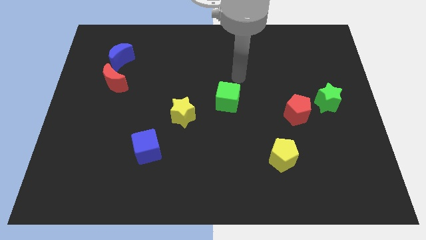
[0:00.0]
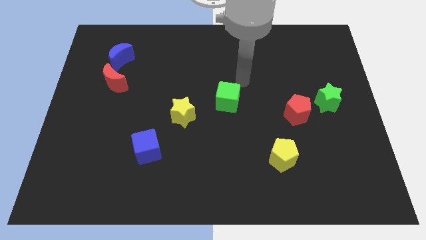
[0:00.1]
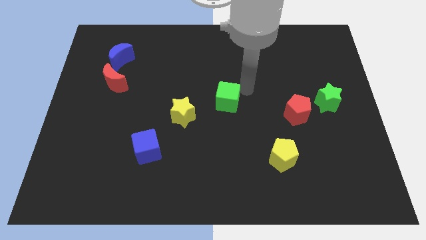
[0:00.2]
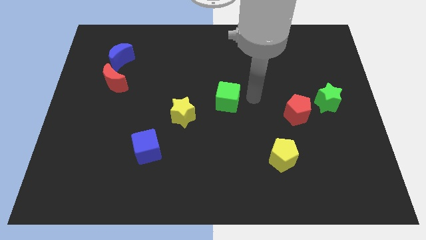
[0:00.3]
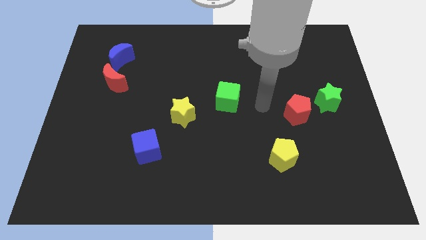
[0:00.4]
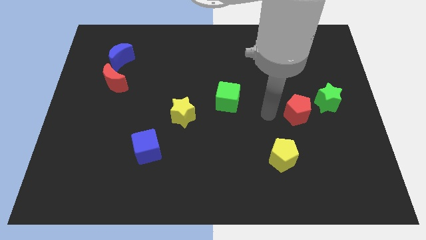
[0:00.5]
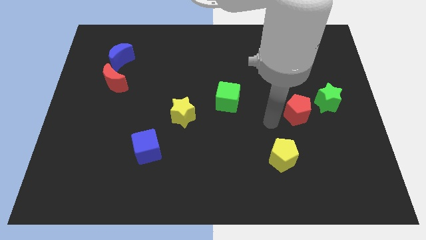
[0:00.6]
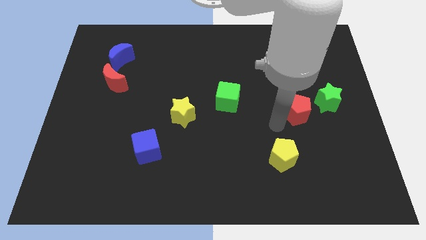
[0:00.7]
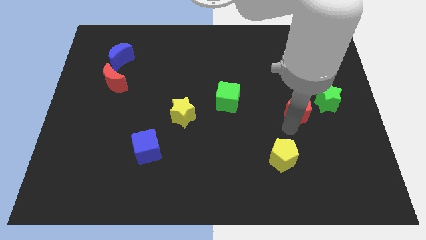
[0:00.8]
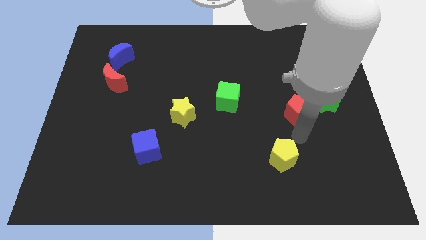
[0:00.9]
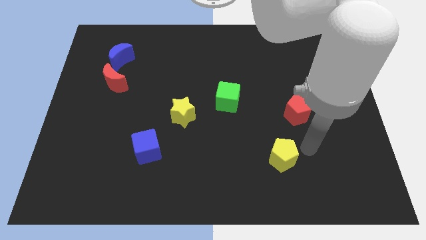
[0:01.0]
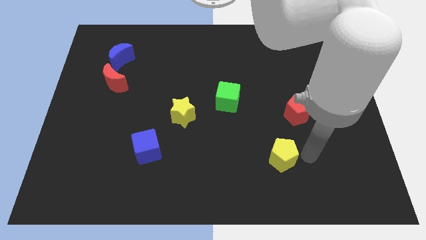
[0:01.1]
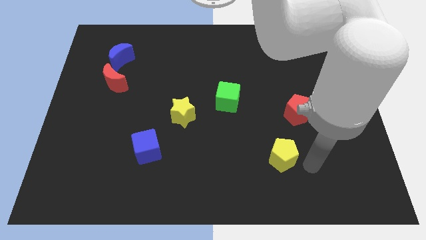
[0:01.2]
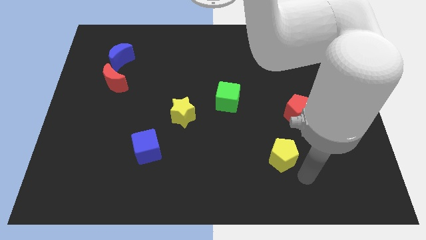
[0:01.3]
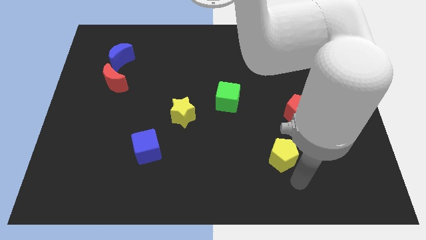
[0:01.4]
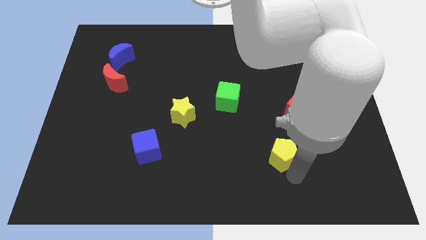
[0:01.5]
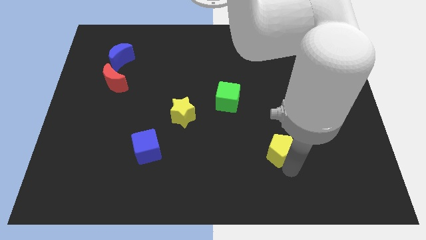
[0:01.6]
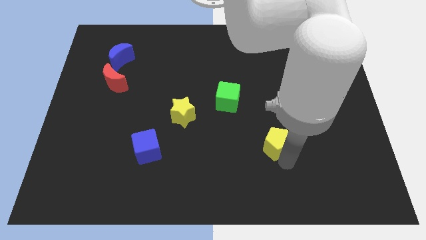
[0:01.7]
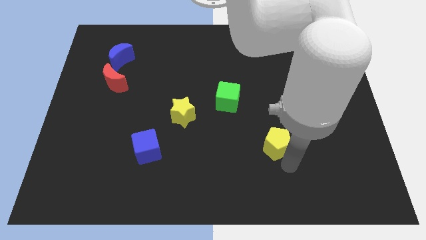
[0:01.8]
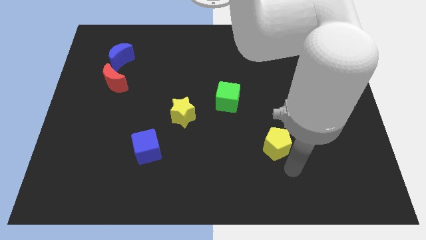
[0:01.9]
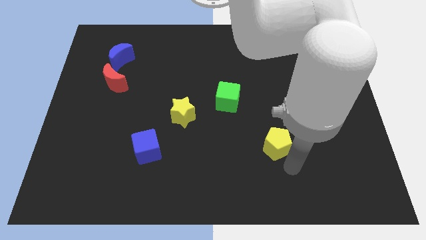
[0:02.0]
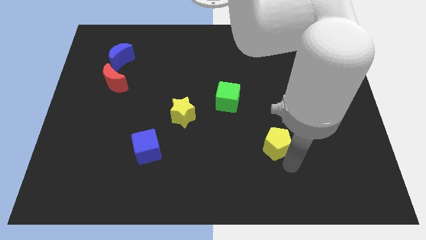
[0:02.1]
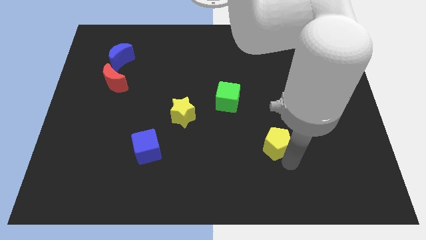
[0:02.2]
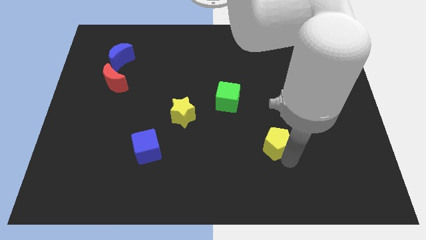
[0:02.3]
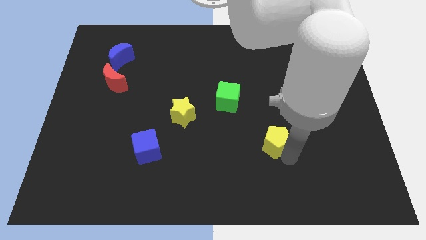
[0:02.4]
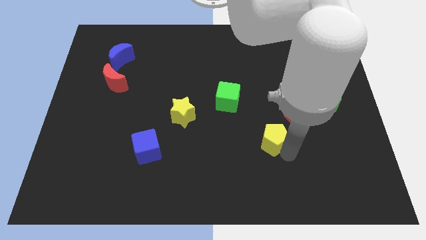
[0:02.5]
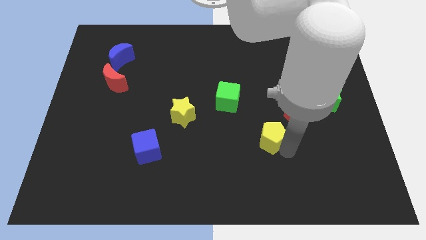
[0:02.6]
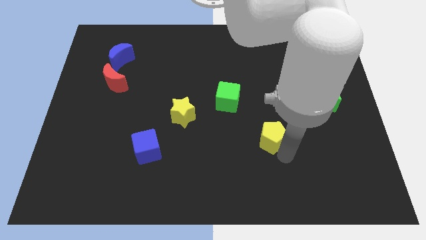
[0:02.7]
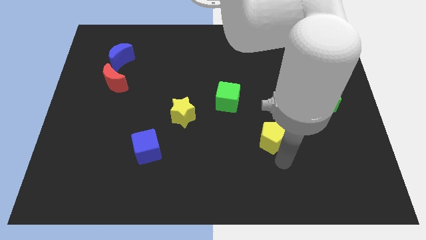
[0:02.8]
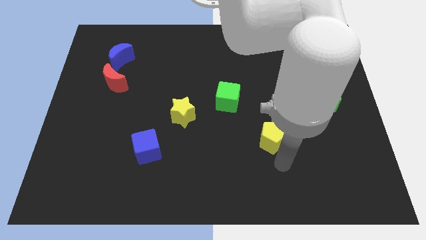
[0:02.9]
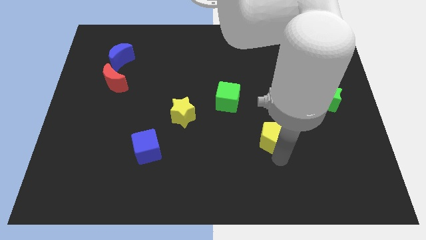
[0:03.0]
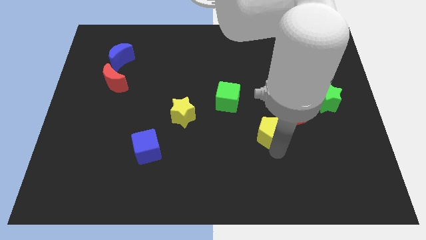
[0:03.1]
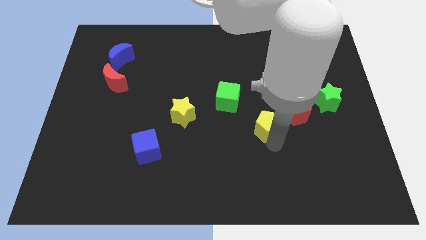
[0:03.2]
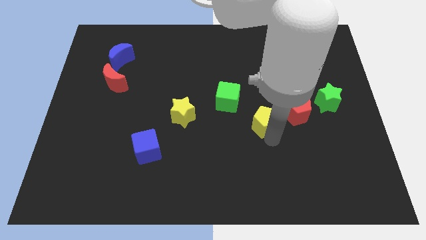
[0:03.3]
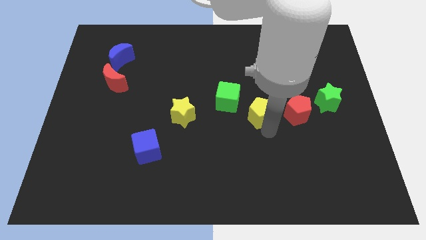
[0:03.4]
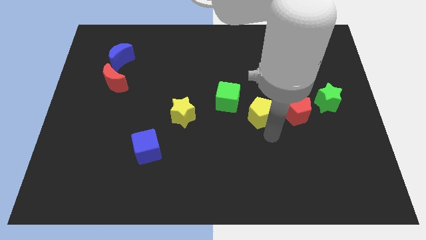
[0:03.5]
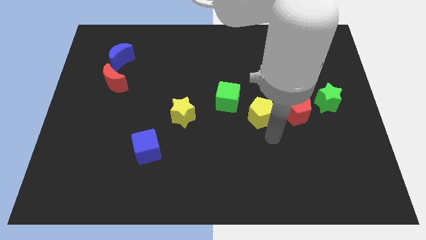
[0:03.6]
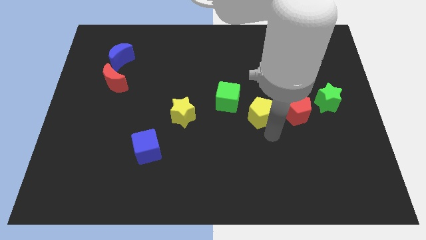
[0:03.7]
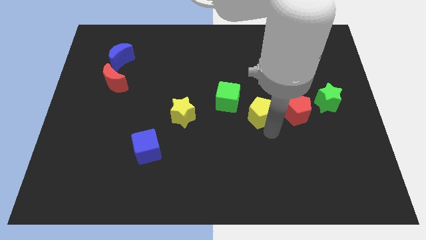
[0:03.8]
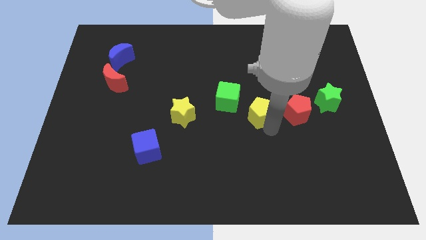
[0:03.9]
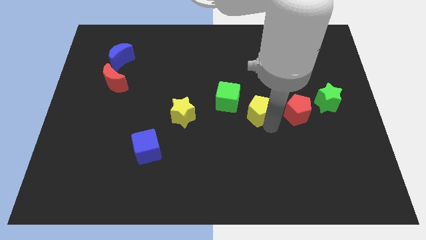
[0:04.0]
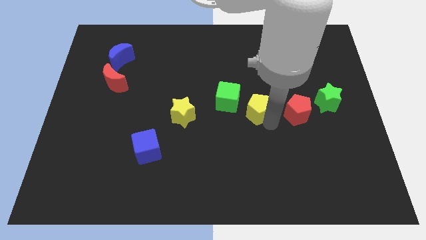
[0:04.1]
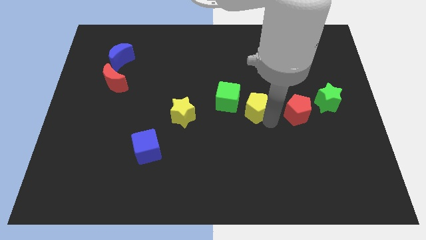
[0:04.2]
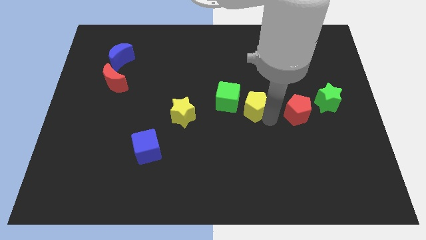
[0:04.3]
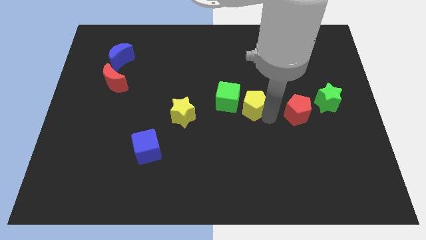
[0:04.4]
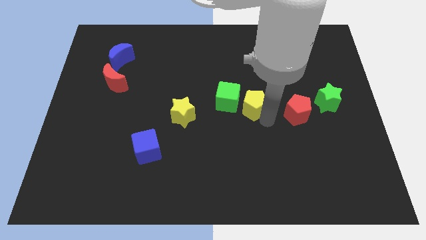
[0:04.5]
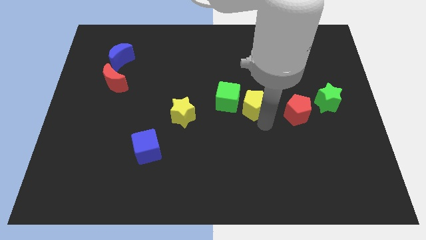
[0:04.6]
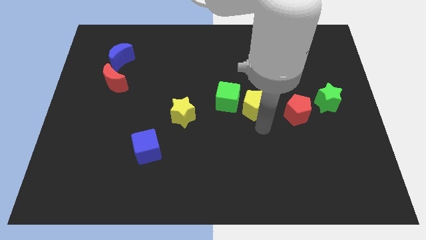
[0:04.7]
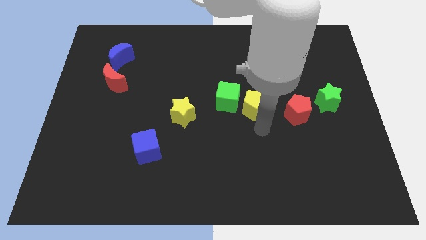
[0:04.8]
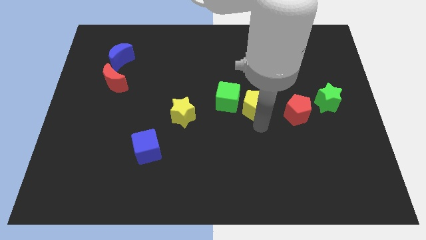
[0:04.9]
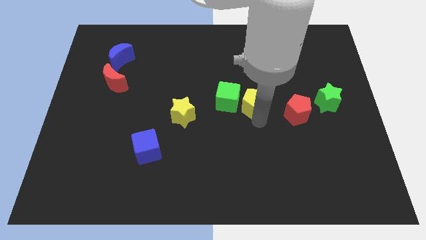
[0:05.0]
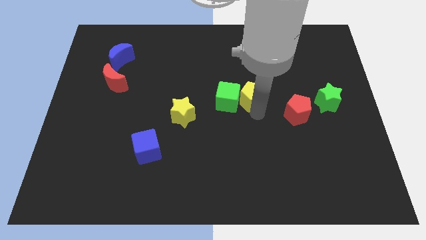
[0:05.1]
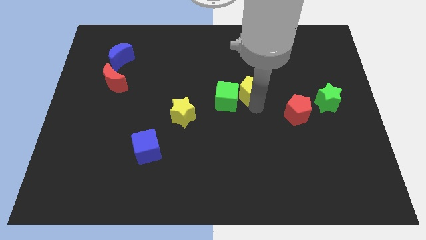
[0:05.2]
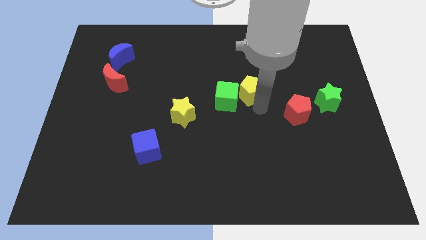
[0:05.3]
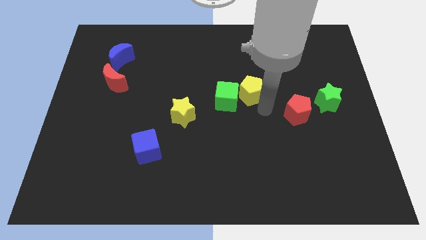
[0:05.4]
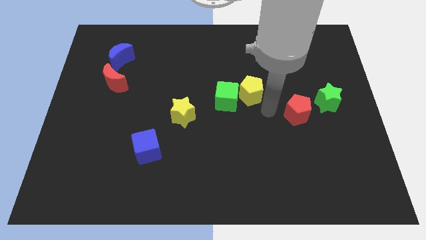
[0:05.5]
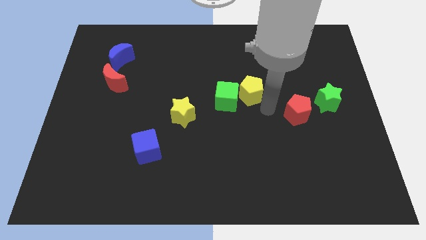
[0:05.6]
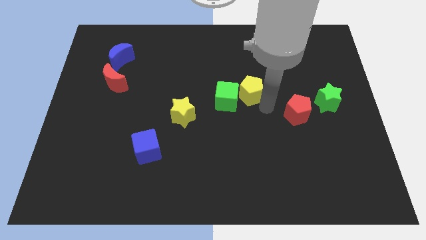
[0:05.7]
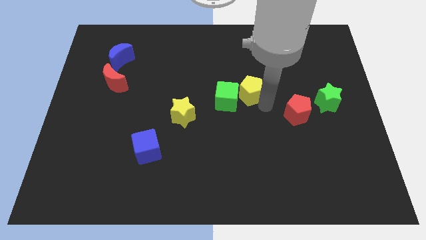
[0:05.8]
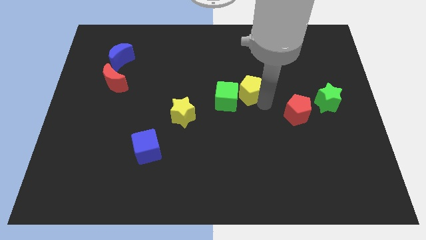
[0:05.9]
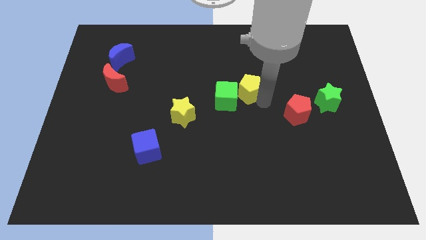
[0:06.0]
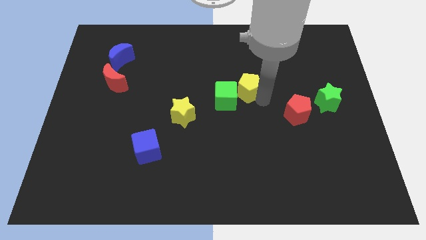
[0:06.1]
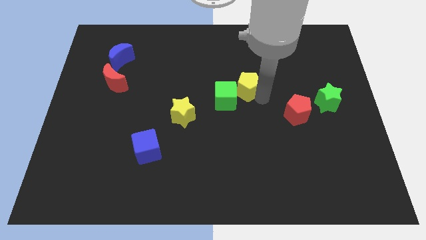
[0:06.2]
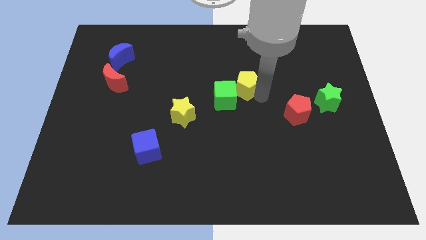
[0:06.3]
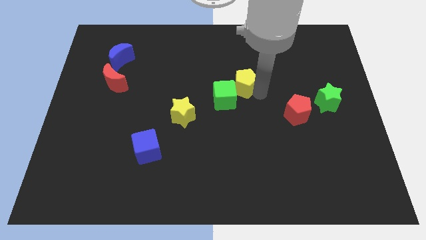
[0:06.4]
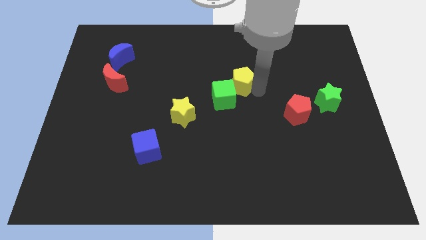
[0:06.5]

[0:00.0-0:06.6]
slide the yellow pentagon above the green cube

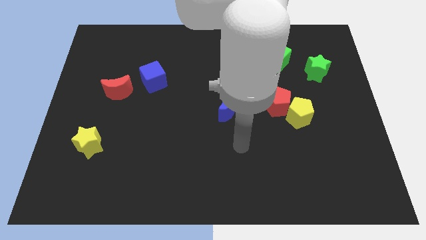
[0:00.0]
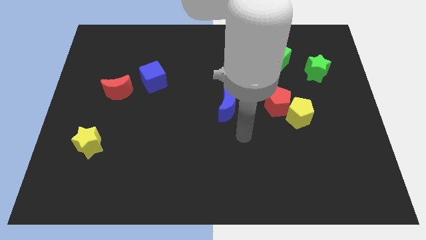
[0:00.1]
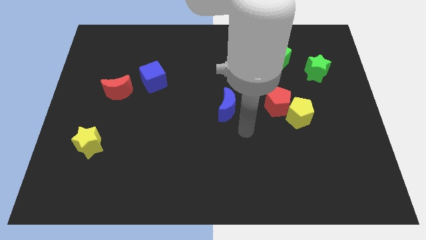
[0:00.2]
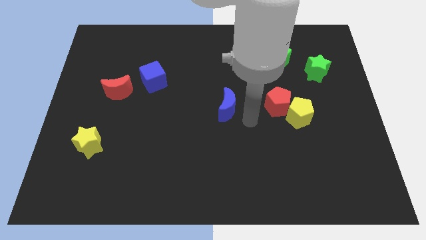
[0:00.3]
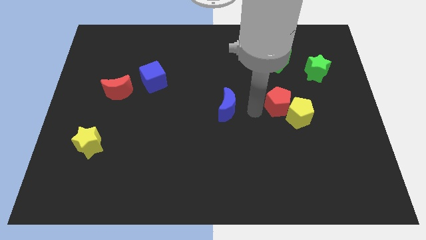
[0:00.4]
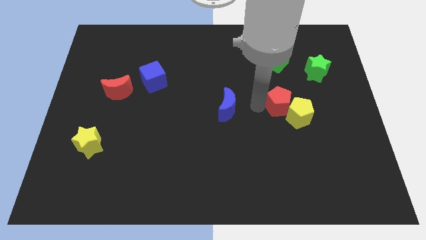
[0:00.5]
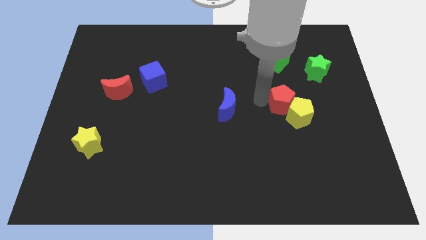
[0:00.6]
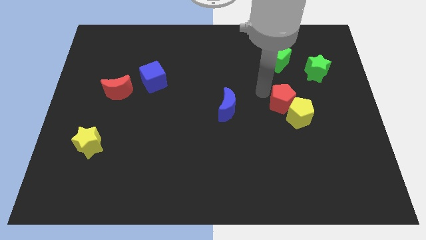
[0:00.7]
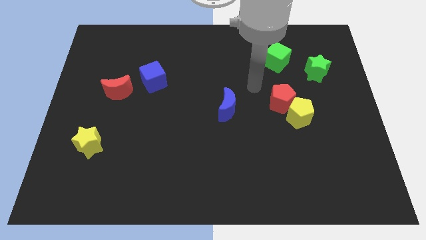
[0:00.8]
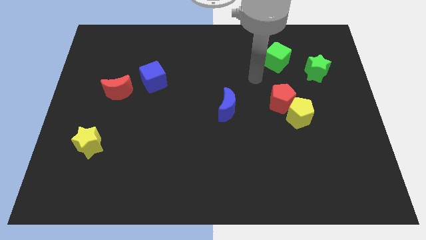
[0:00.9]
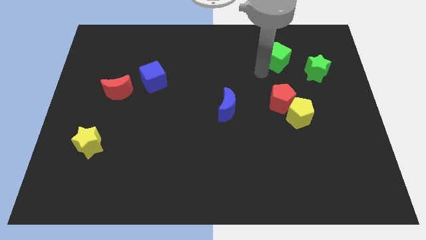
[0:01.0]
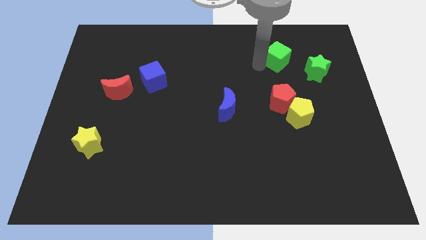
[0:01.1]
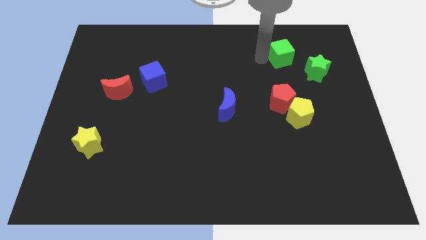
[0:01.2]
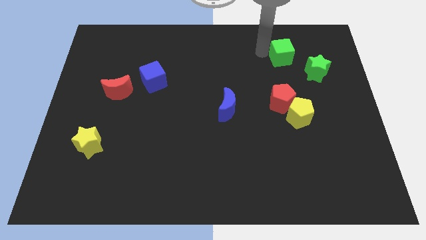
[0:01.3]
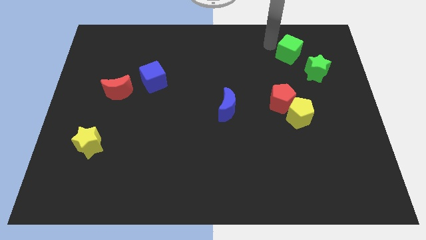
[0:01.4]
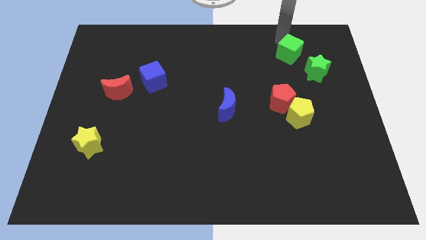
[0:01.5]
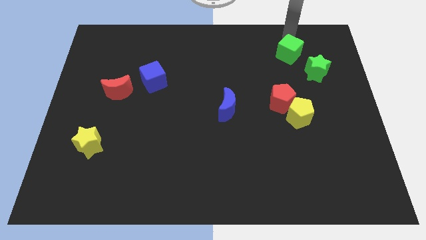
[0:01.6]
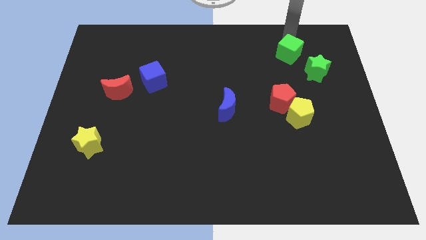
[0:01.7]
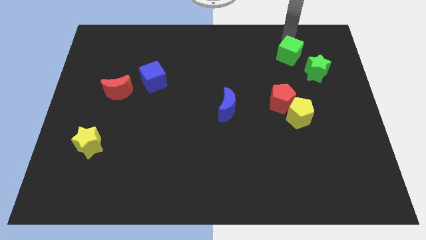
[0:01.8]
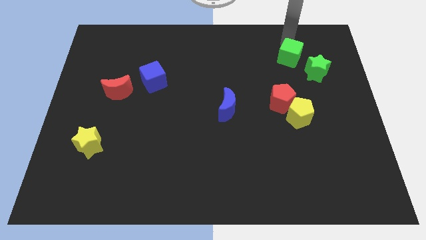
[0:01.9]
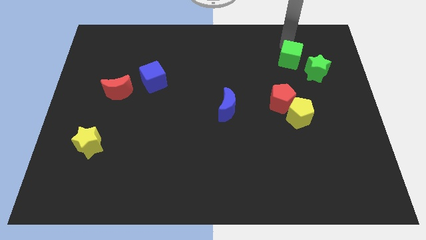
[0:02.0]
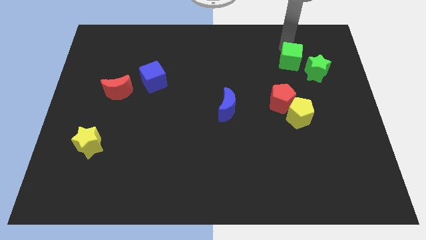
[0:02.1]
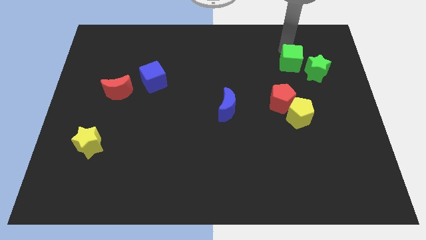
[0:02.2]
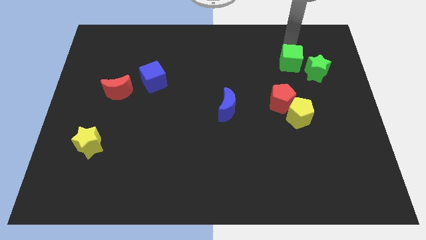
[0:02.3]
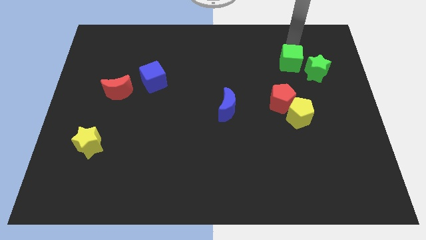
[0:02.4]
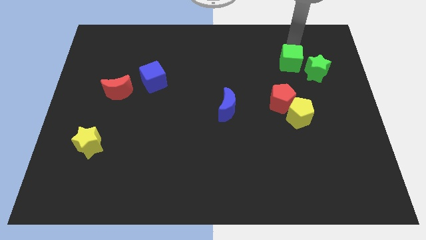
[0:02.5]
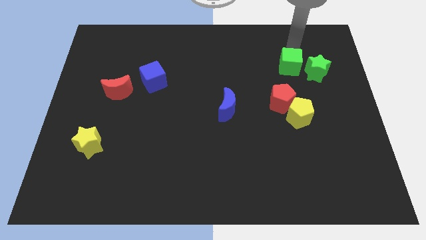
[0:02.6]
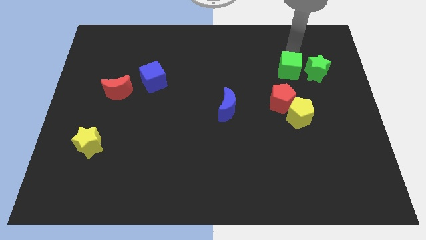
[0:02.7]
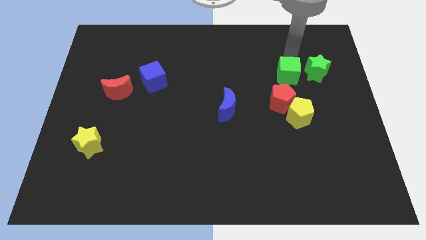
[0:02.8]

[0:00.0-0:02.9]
move the green cube to the top right side of the red pentagon
